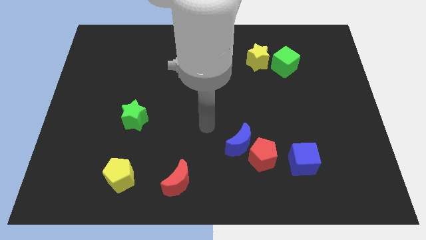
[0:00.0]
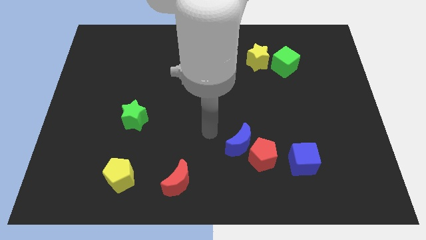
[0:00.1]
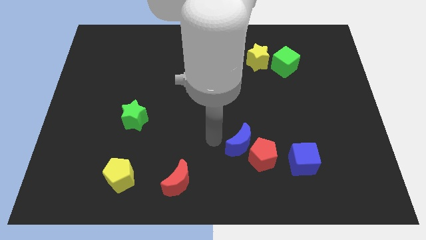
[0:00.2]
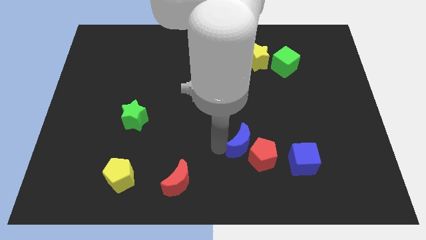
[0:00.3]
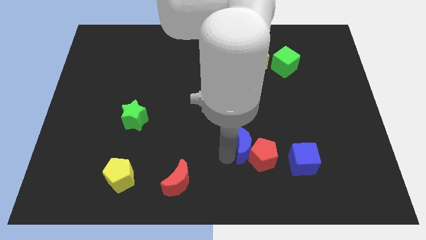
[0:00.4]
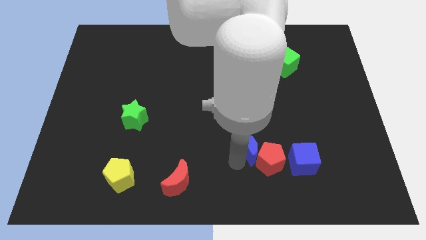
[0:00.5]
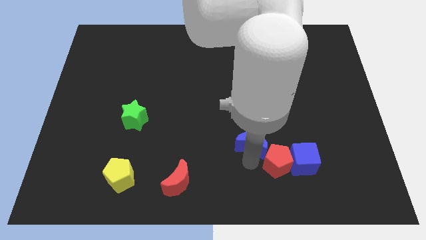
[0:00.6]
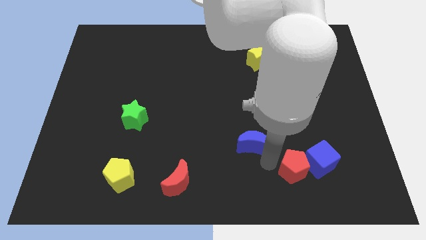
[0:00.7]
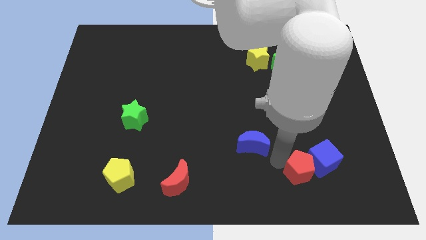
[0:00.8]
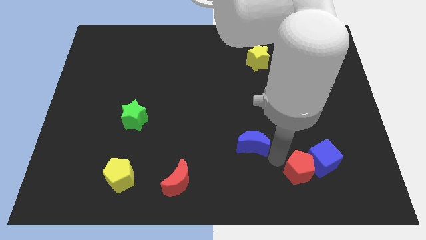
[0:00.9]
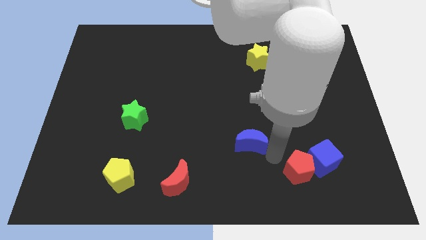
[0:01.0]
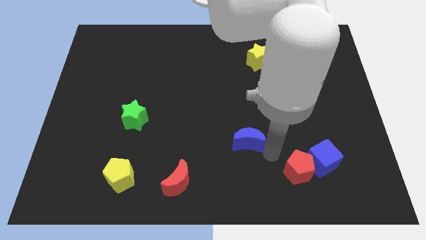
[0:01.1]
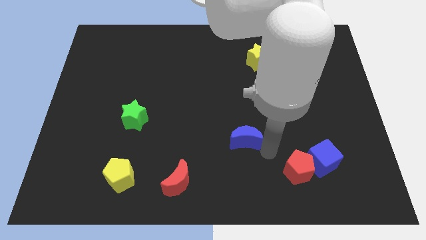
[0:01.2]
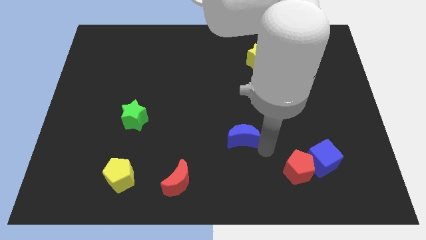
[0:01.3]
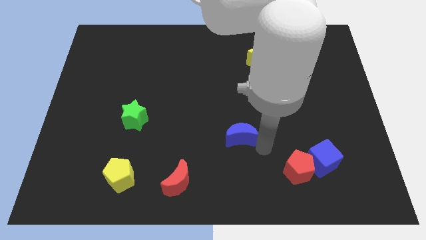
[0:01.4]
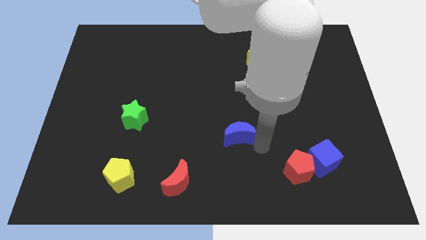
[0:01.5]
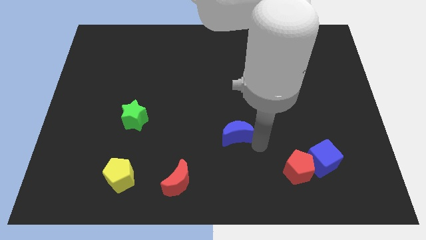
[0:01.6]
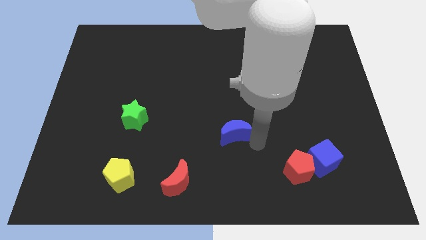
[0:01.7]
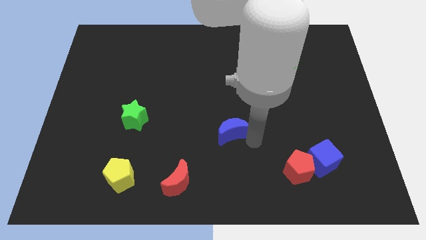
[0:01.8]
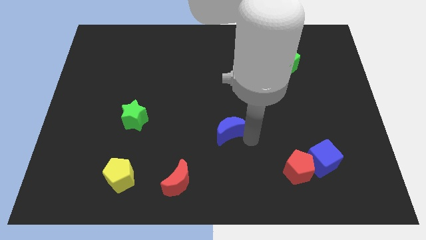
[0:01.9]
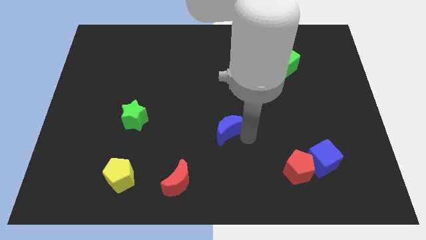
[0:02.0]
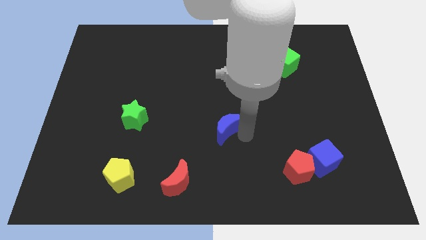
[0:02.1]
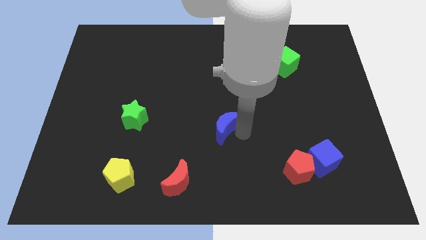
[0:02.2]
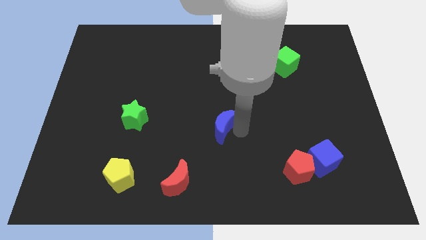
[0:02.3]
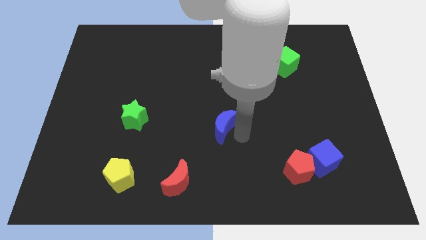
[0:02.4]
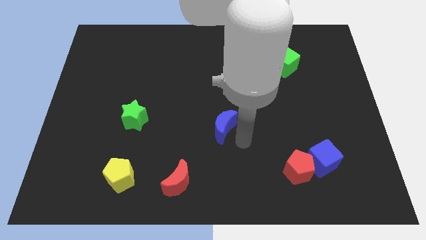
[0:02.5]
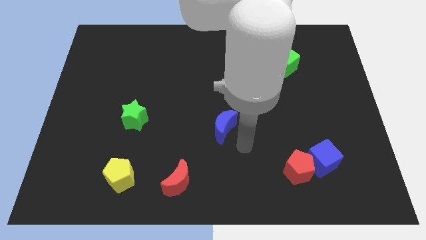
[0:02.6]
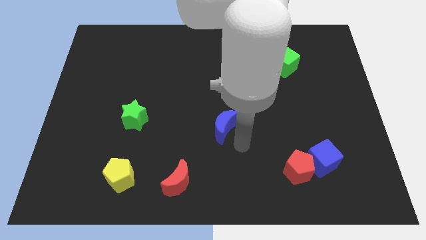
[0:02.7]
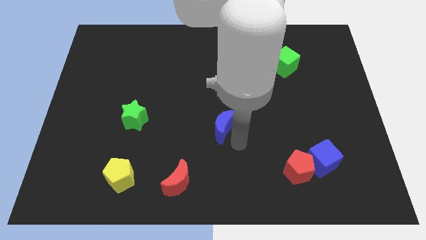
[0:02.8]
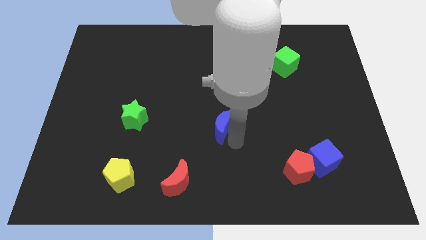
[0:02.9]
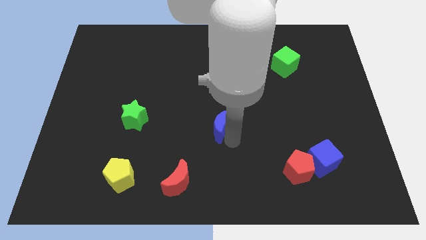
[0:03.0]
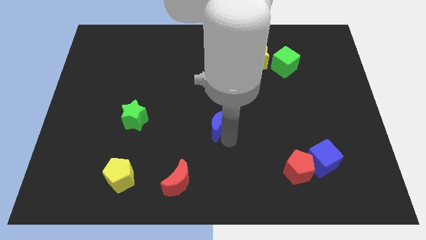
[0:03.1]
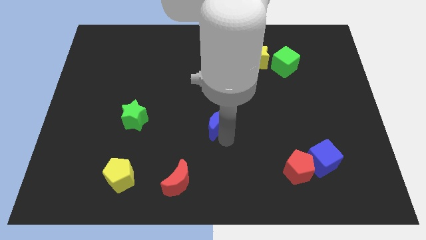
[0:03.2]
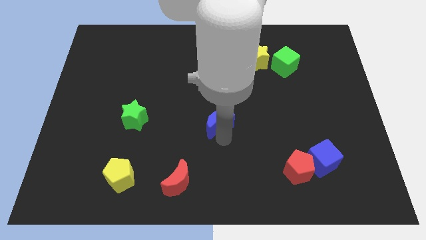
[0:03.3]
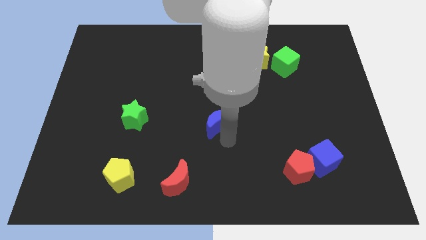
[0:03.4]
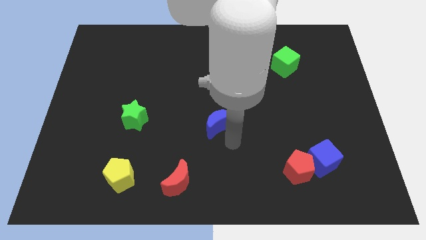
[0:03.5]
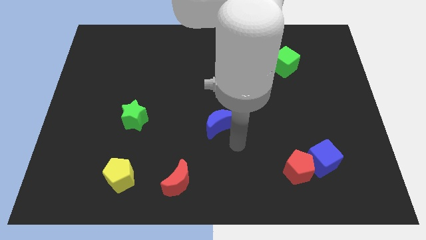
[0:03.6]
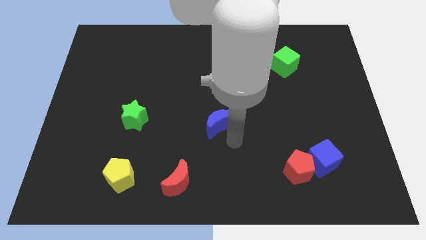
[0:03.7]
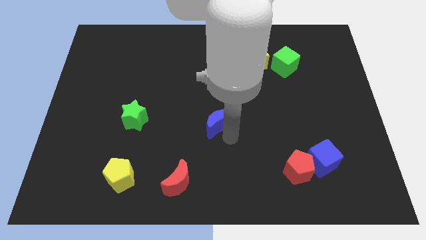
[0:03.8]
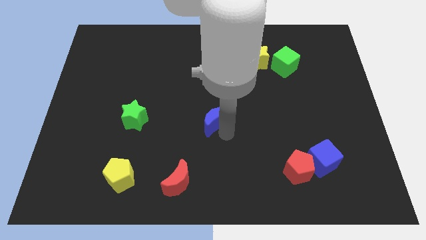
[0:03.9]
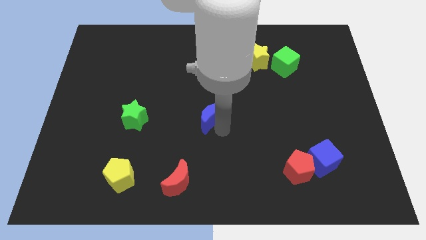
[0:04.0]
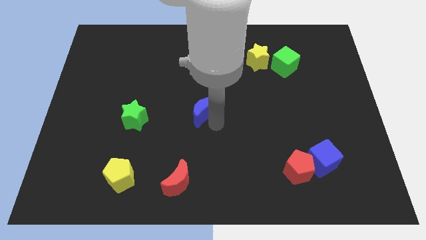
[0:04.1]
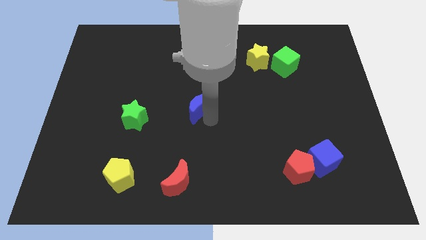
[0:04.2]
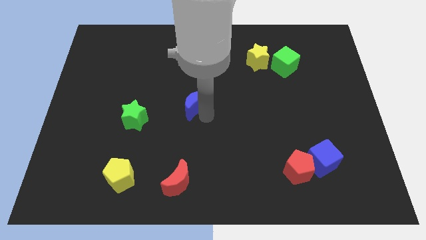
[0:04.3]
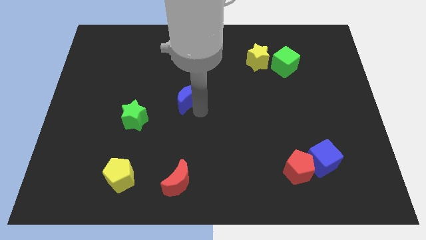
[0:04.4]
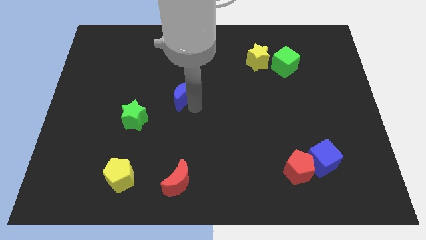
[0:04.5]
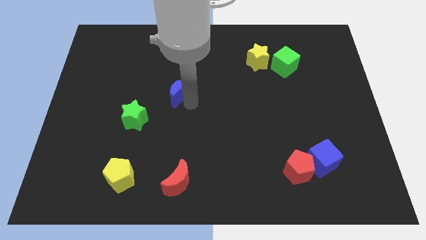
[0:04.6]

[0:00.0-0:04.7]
move the blue moon upwards and to the left

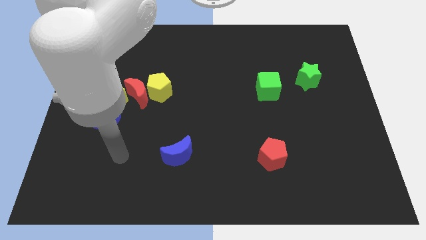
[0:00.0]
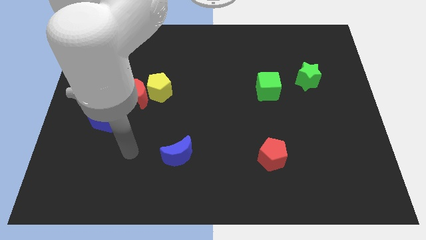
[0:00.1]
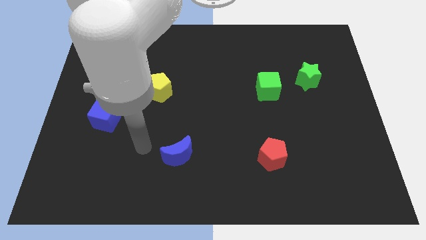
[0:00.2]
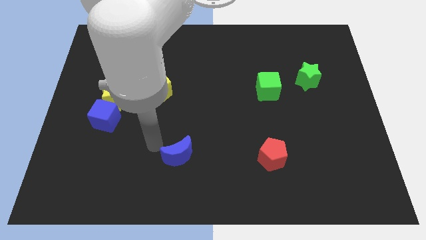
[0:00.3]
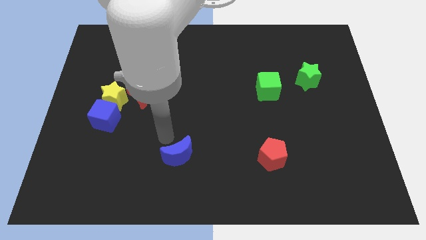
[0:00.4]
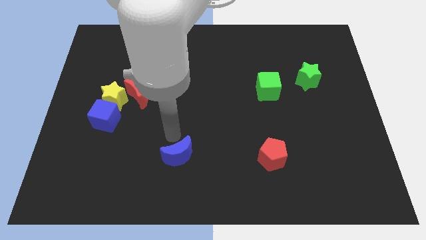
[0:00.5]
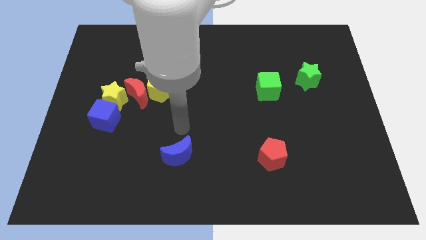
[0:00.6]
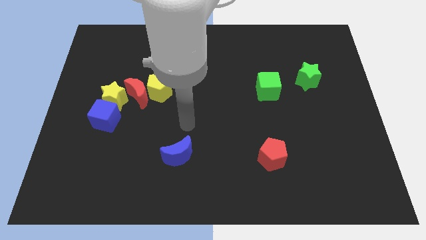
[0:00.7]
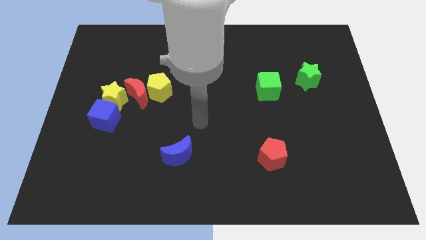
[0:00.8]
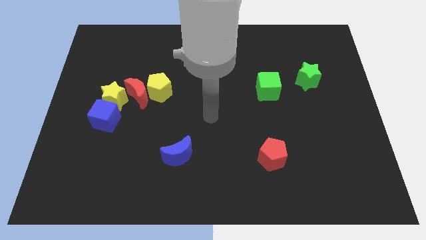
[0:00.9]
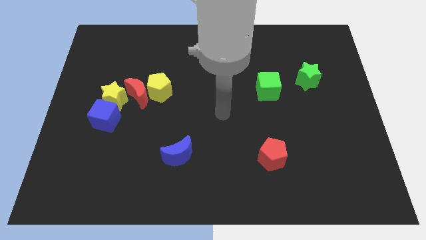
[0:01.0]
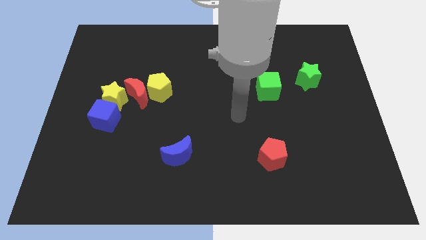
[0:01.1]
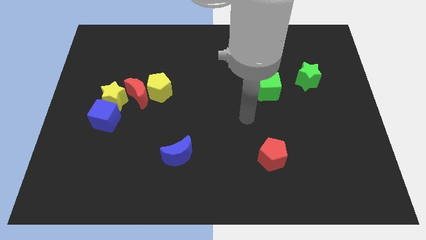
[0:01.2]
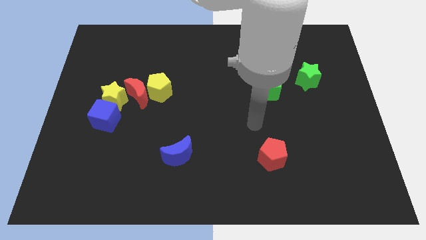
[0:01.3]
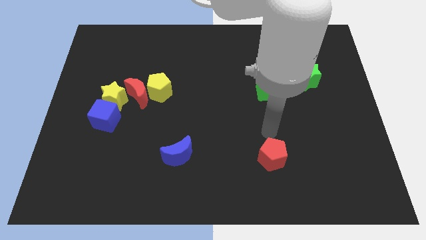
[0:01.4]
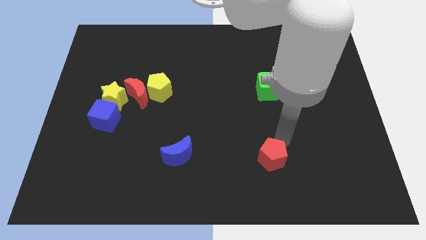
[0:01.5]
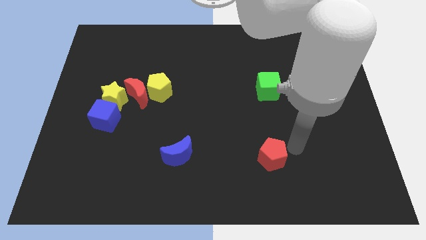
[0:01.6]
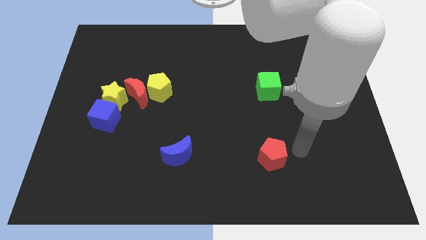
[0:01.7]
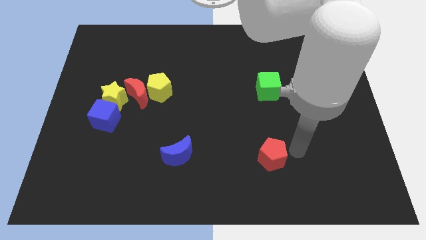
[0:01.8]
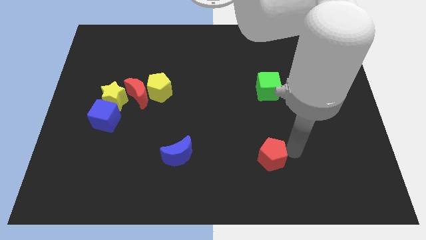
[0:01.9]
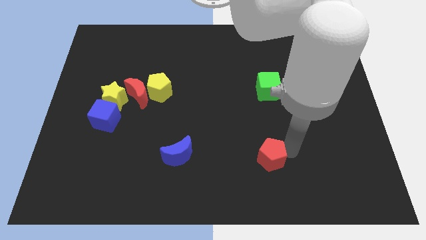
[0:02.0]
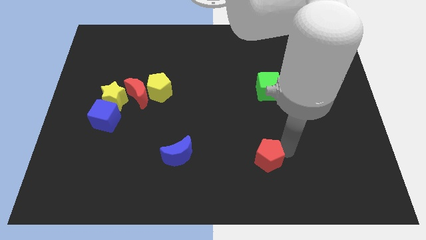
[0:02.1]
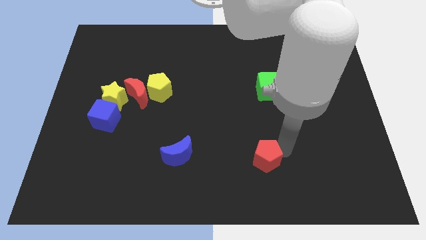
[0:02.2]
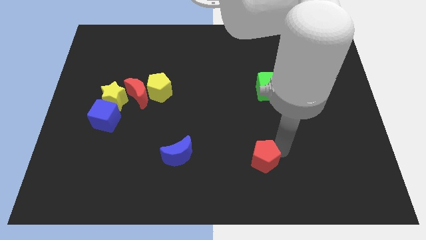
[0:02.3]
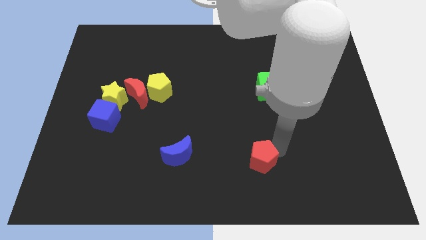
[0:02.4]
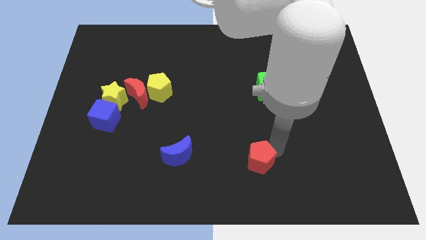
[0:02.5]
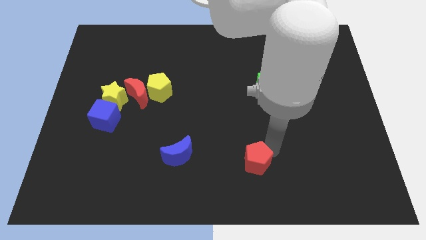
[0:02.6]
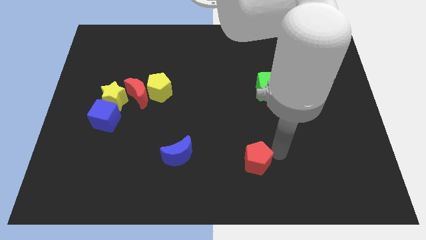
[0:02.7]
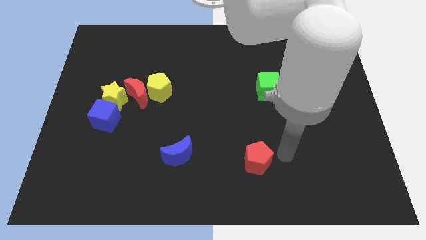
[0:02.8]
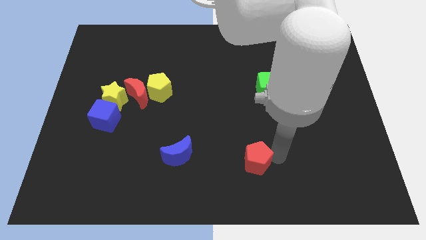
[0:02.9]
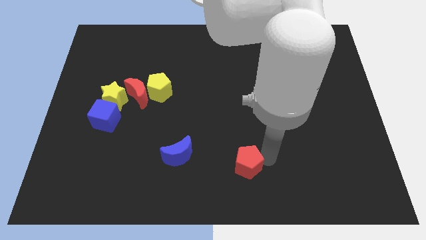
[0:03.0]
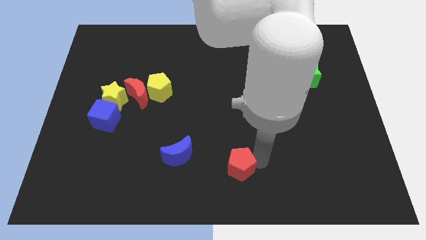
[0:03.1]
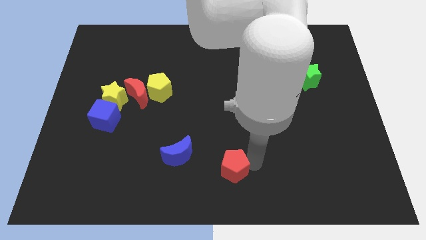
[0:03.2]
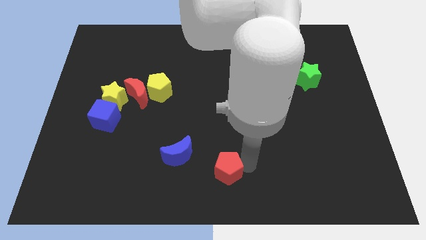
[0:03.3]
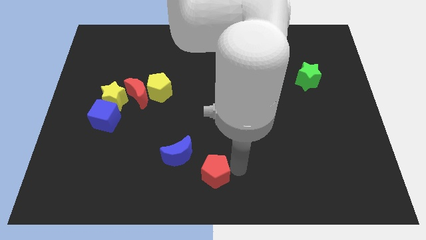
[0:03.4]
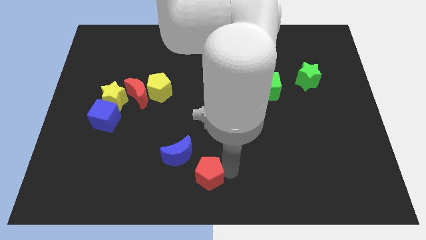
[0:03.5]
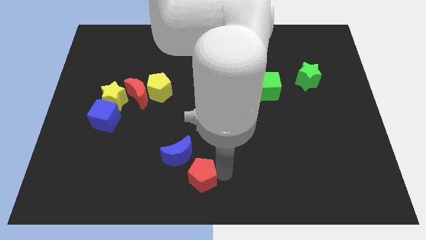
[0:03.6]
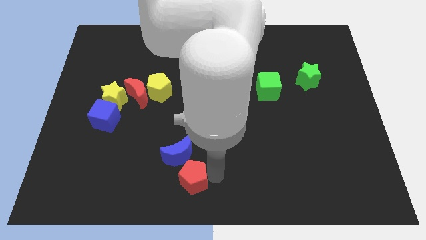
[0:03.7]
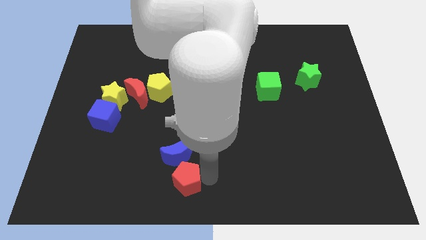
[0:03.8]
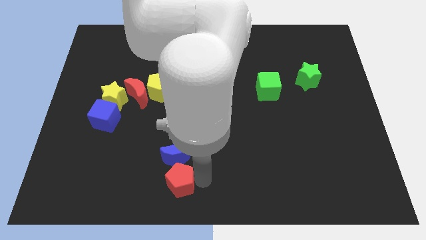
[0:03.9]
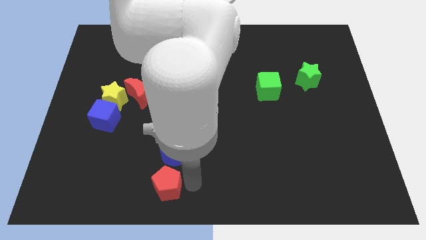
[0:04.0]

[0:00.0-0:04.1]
slide the red pentagon left
